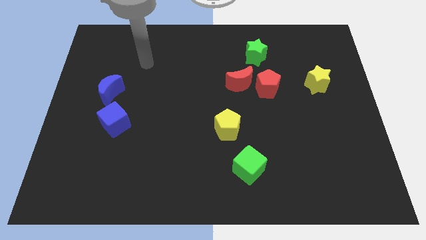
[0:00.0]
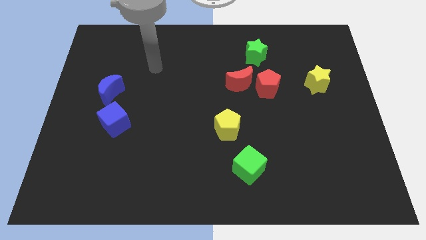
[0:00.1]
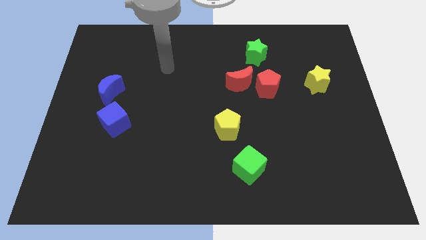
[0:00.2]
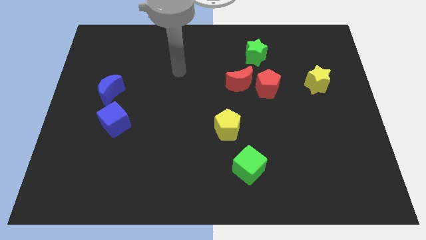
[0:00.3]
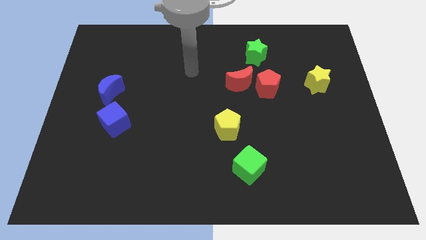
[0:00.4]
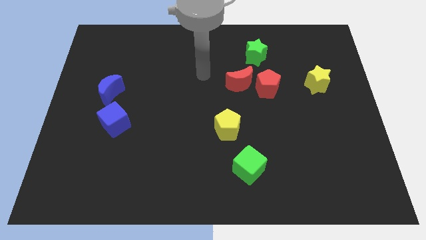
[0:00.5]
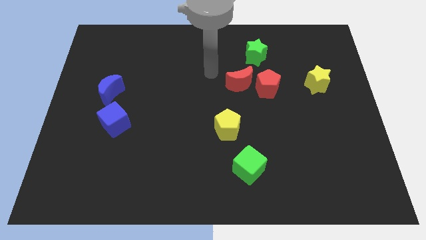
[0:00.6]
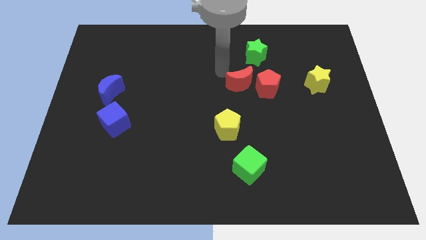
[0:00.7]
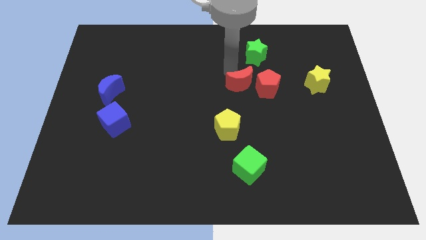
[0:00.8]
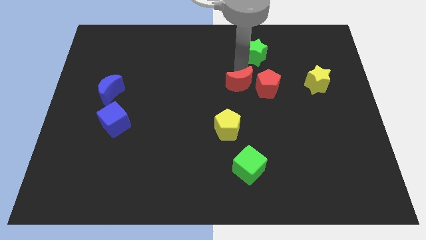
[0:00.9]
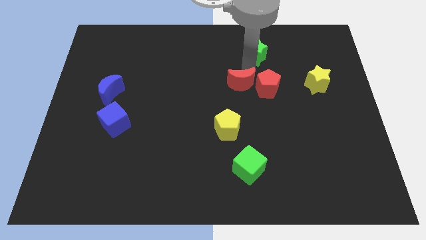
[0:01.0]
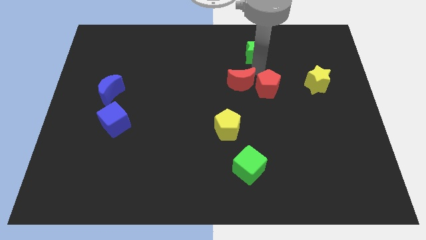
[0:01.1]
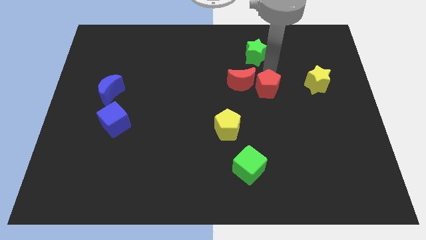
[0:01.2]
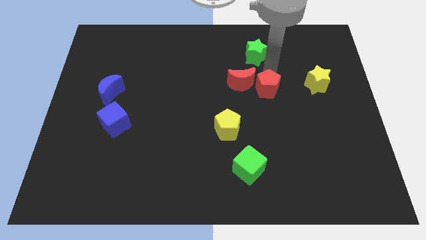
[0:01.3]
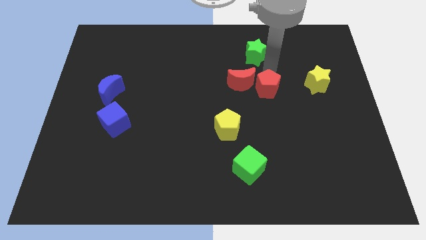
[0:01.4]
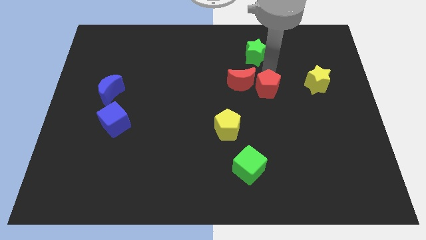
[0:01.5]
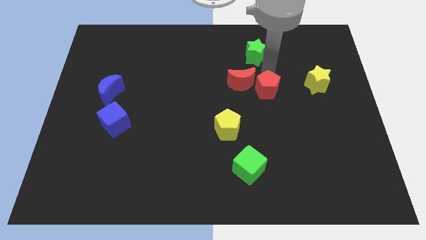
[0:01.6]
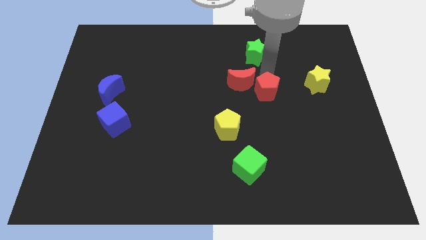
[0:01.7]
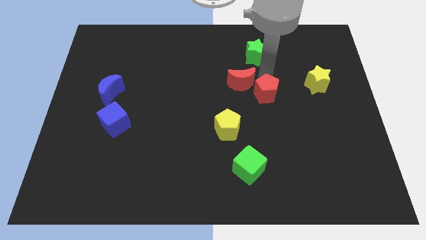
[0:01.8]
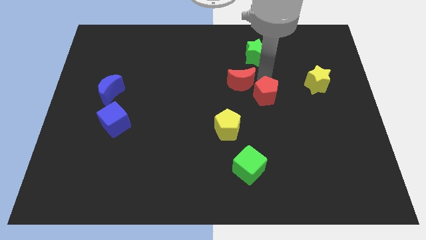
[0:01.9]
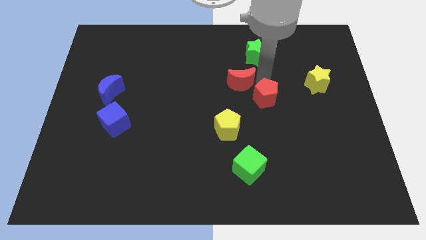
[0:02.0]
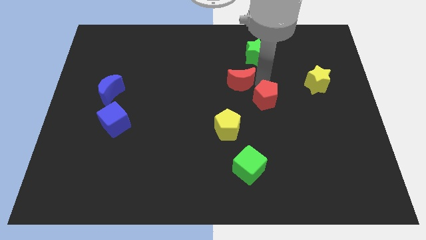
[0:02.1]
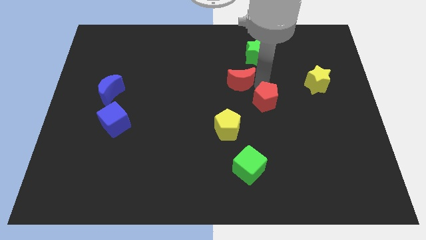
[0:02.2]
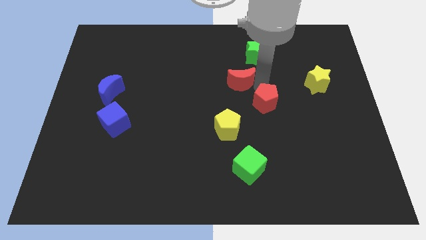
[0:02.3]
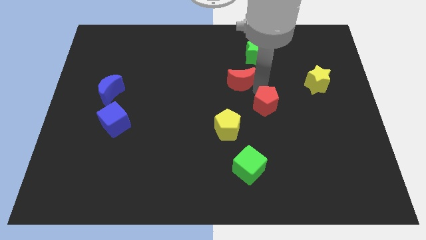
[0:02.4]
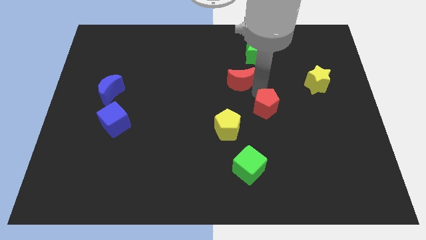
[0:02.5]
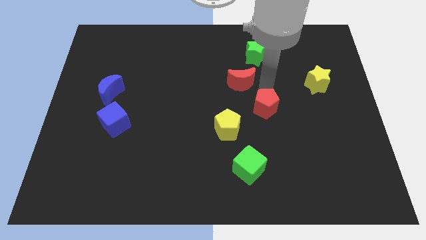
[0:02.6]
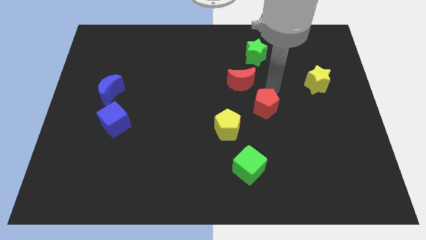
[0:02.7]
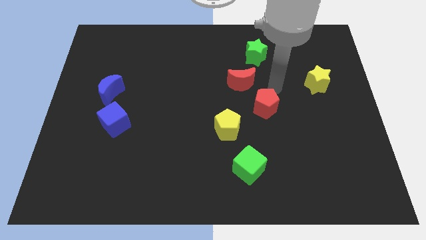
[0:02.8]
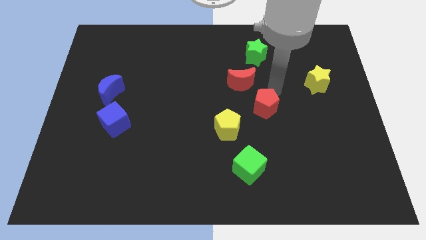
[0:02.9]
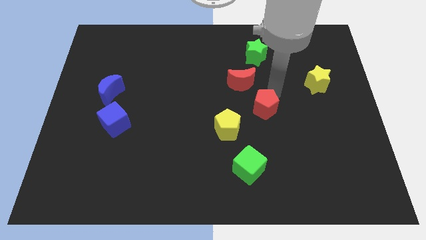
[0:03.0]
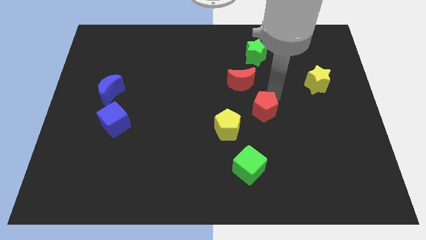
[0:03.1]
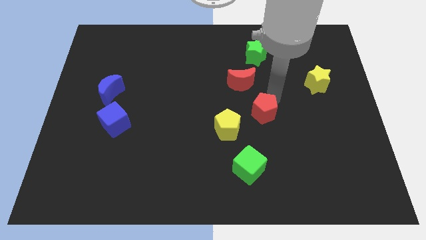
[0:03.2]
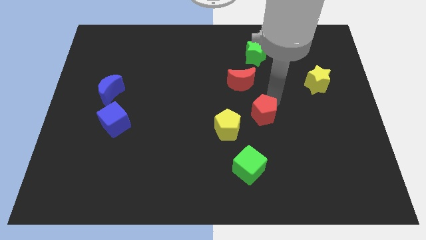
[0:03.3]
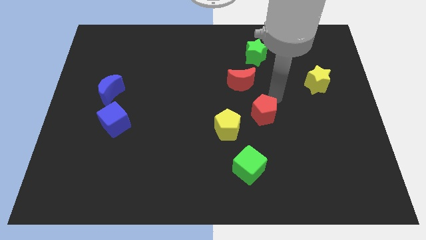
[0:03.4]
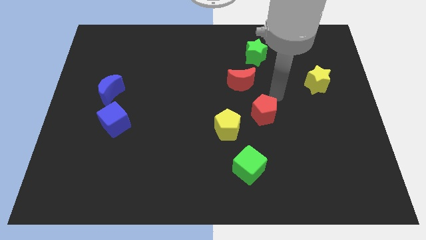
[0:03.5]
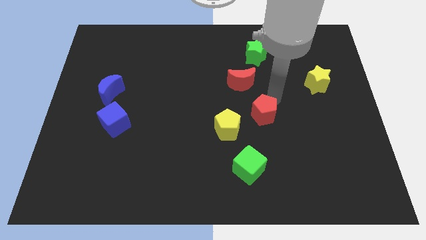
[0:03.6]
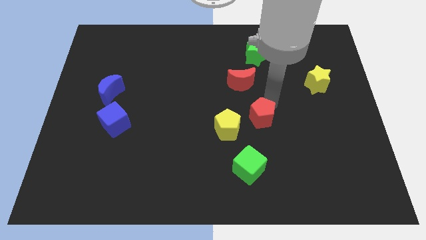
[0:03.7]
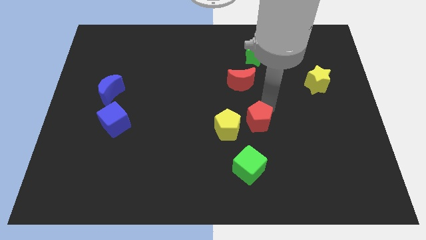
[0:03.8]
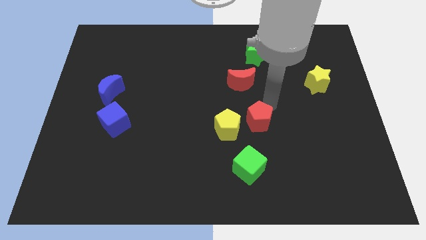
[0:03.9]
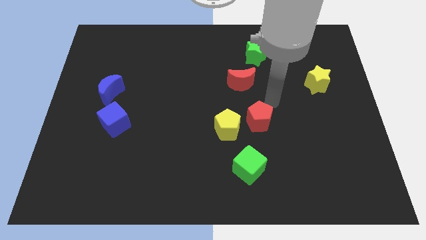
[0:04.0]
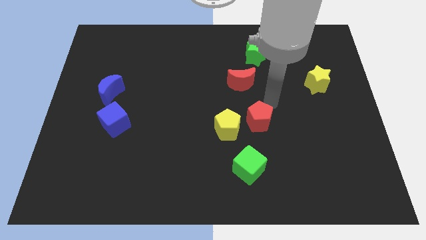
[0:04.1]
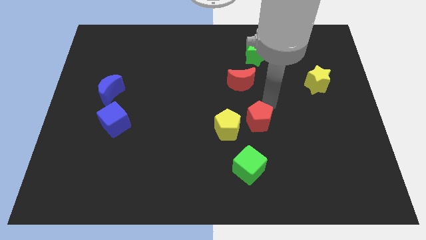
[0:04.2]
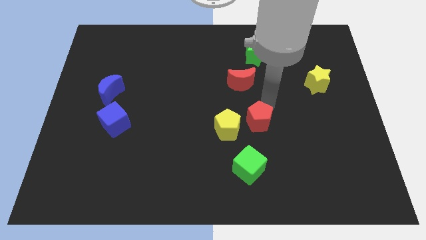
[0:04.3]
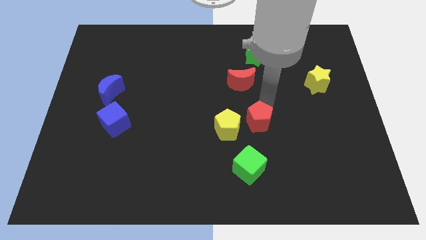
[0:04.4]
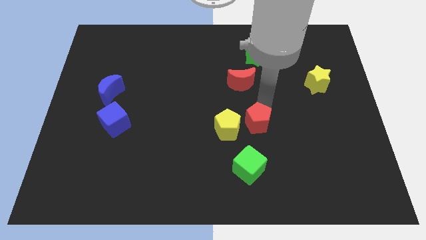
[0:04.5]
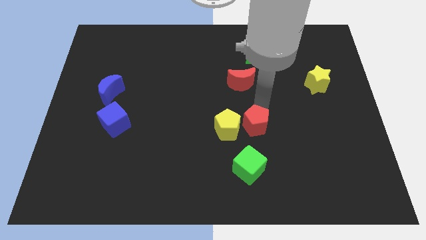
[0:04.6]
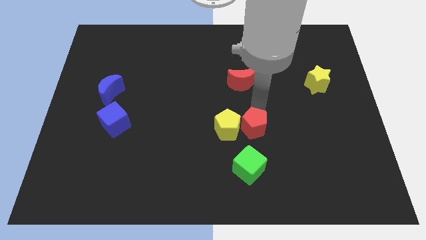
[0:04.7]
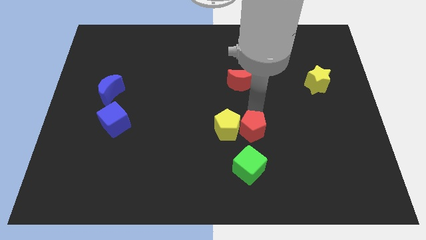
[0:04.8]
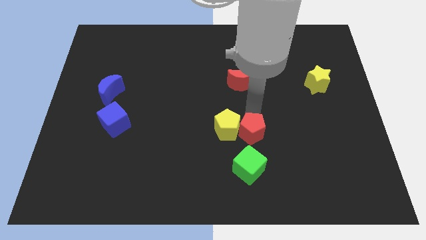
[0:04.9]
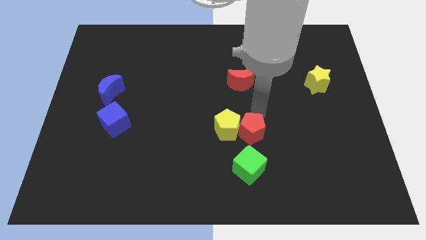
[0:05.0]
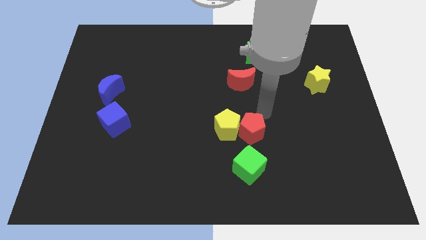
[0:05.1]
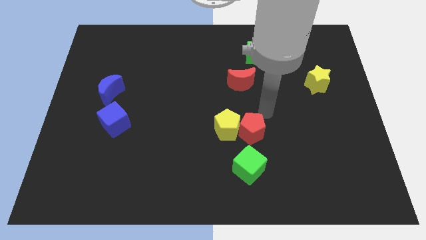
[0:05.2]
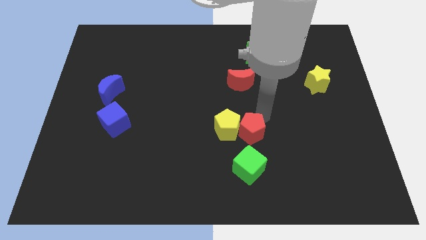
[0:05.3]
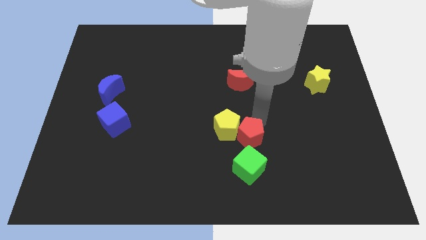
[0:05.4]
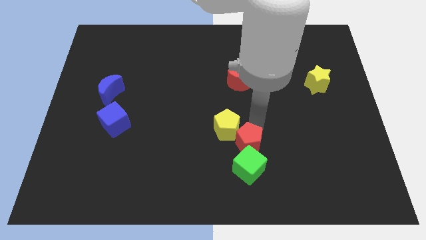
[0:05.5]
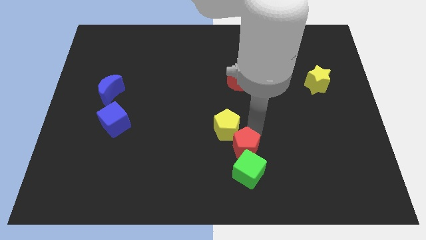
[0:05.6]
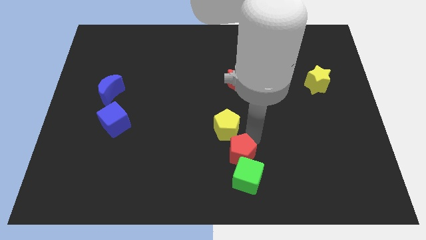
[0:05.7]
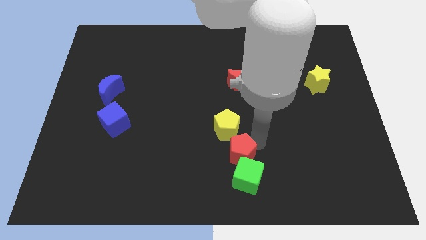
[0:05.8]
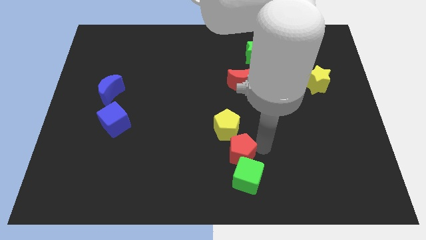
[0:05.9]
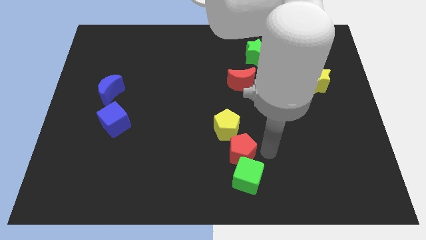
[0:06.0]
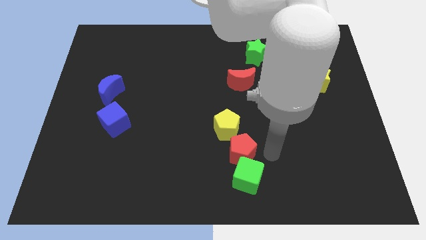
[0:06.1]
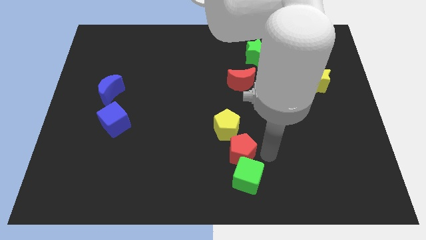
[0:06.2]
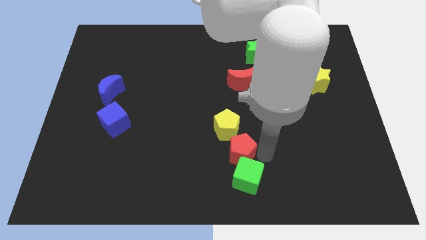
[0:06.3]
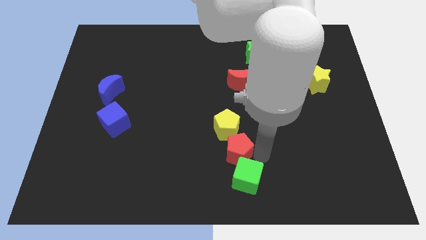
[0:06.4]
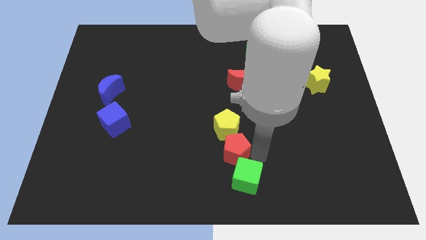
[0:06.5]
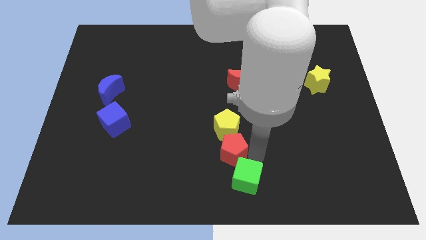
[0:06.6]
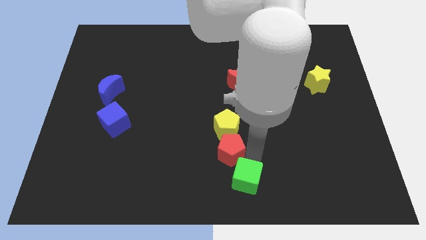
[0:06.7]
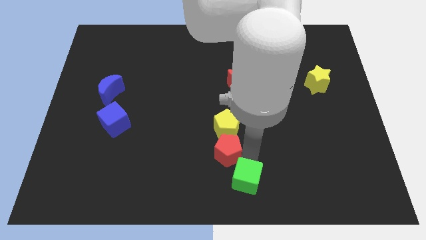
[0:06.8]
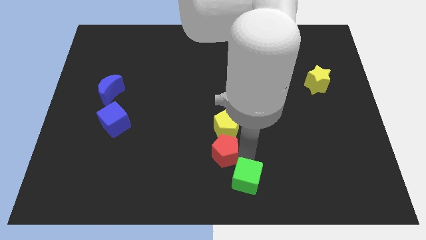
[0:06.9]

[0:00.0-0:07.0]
move the red pentagon to the bottom
